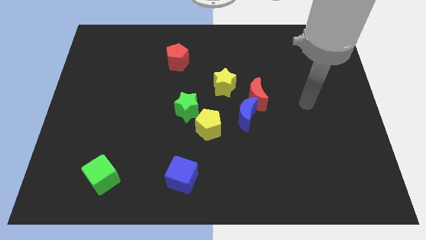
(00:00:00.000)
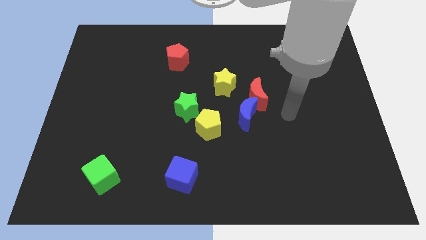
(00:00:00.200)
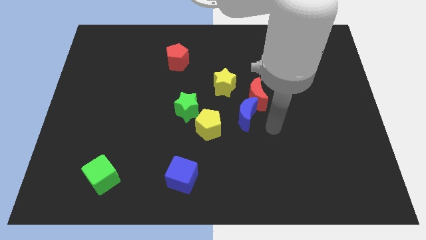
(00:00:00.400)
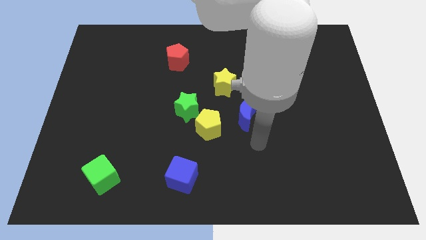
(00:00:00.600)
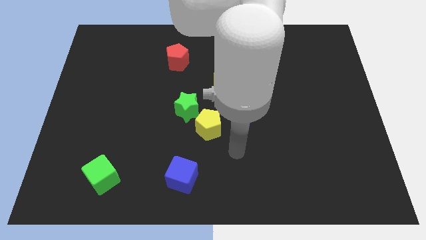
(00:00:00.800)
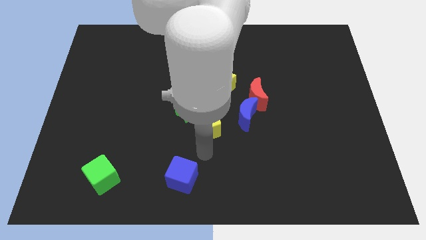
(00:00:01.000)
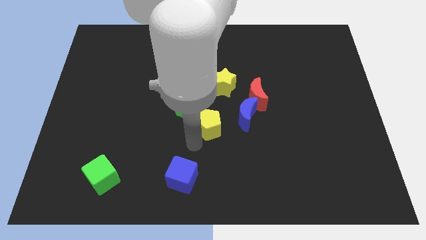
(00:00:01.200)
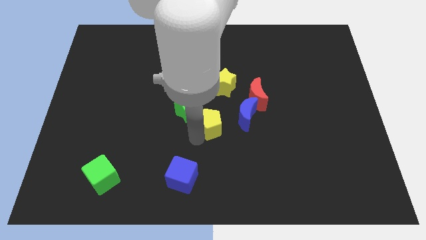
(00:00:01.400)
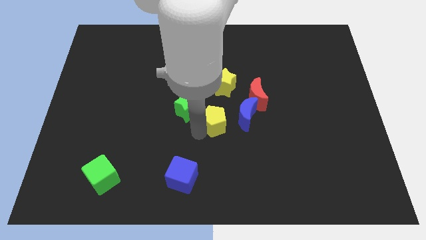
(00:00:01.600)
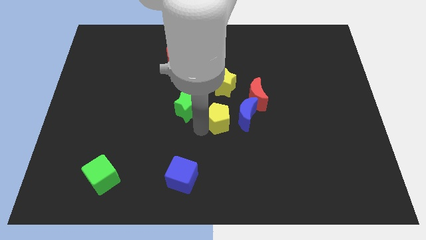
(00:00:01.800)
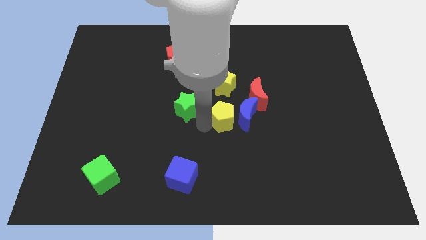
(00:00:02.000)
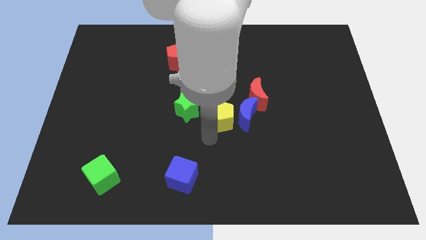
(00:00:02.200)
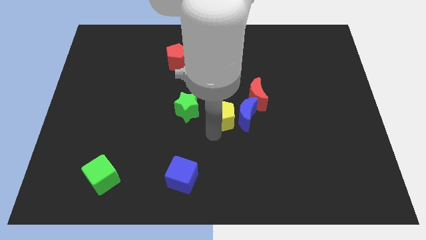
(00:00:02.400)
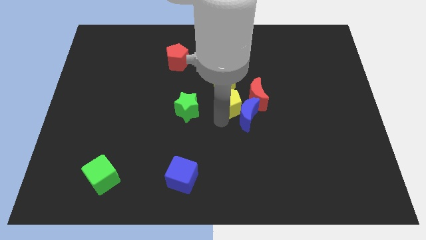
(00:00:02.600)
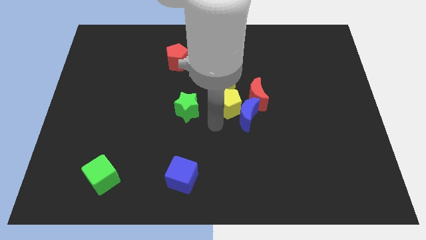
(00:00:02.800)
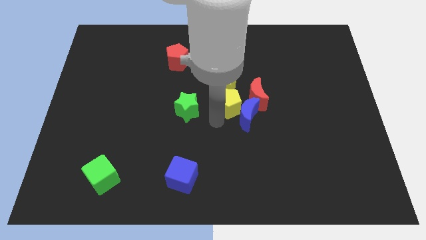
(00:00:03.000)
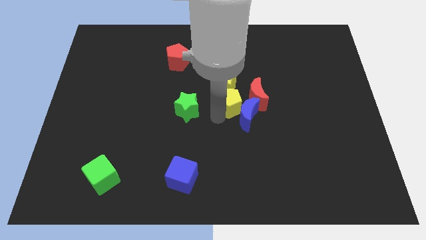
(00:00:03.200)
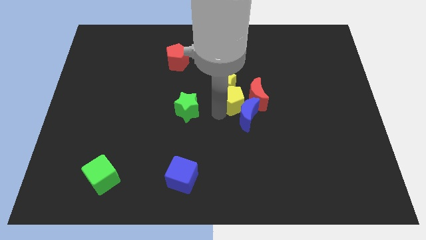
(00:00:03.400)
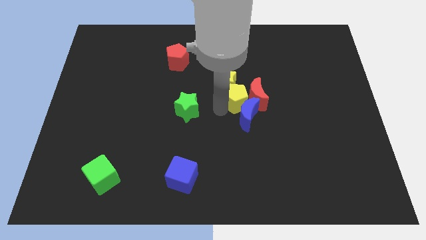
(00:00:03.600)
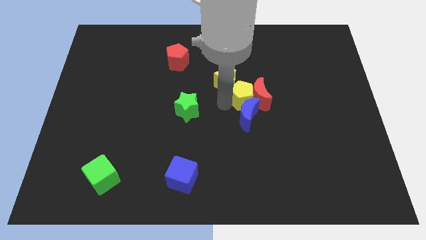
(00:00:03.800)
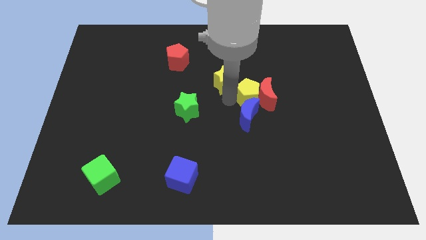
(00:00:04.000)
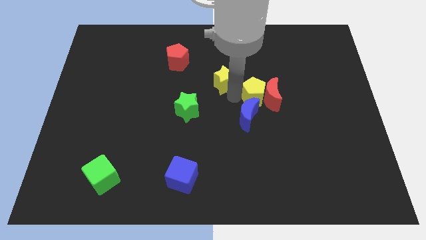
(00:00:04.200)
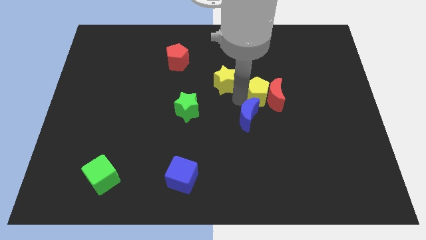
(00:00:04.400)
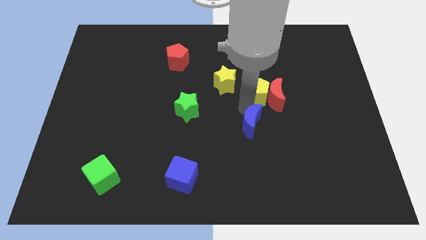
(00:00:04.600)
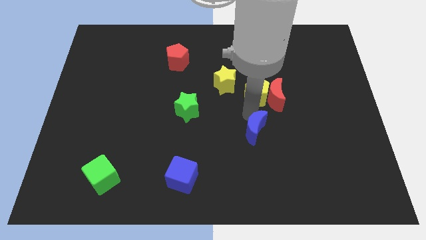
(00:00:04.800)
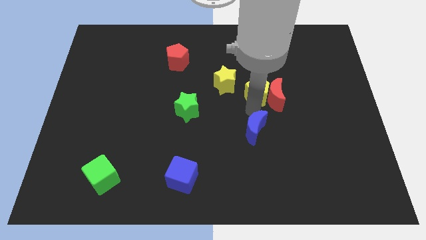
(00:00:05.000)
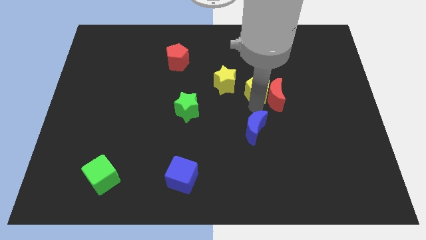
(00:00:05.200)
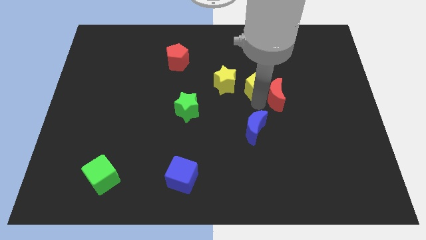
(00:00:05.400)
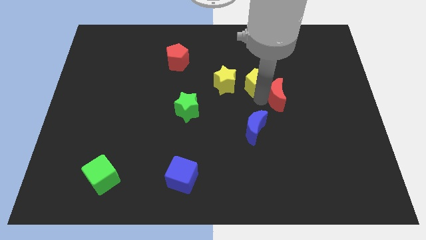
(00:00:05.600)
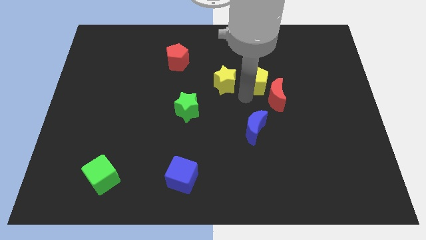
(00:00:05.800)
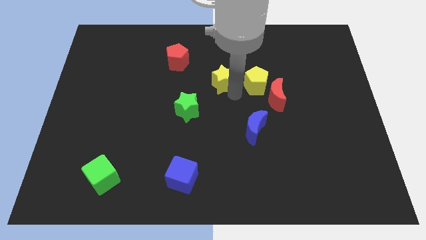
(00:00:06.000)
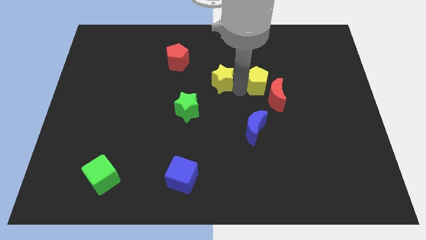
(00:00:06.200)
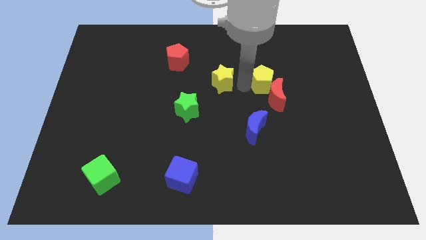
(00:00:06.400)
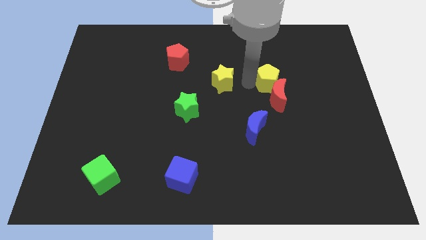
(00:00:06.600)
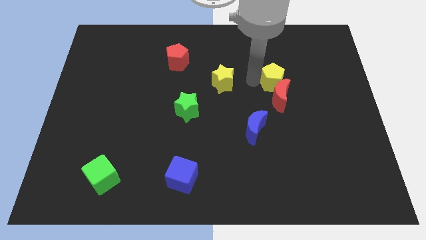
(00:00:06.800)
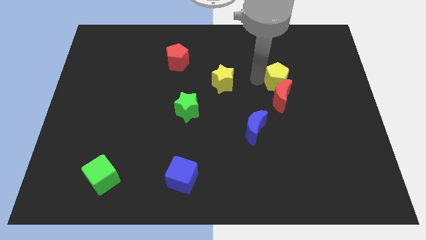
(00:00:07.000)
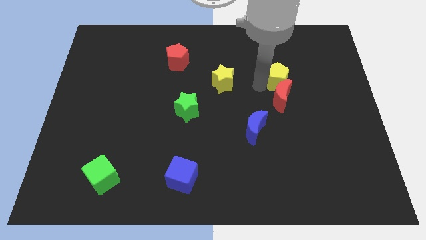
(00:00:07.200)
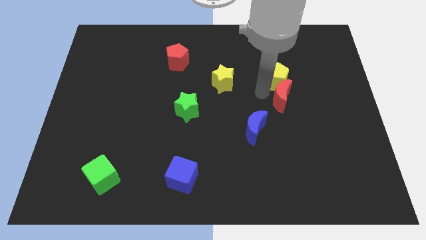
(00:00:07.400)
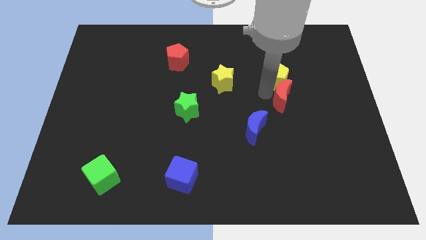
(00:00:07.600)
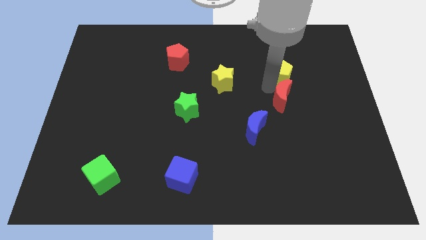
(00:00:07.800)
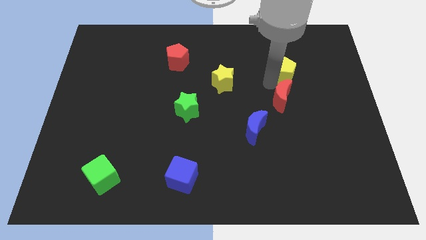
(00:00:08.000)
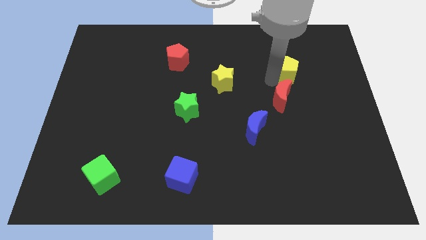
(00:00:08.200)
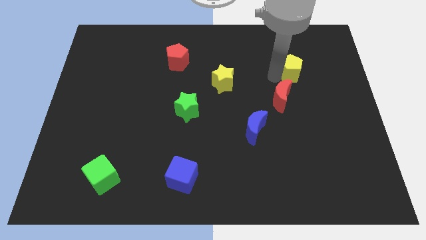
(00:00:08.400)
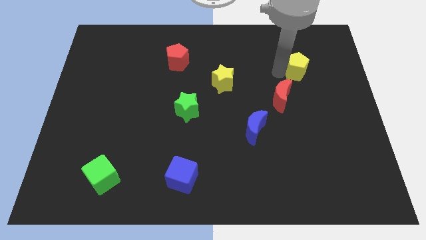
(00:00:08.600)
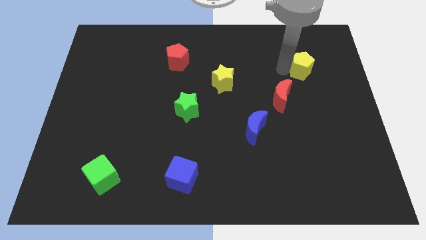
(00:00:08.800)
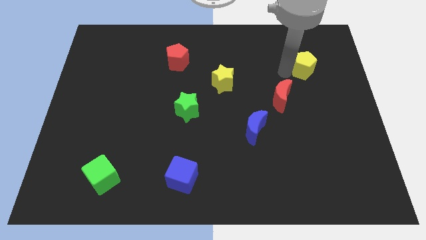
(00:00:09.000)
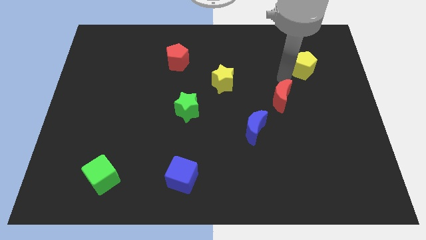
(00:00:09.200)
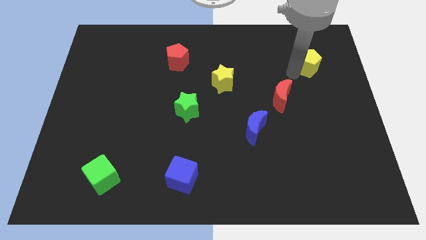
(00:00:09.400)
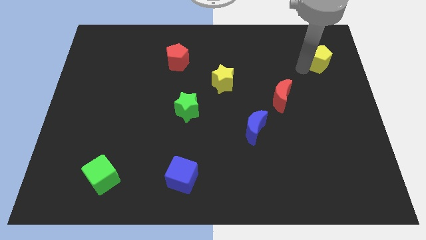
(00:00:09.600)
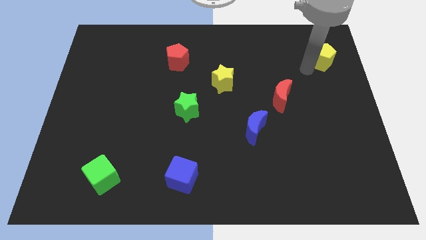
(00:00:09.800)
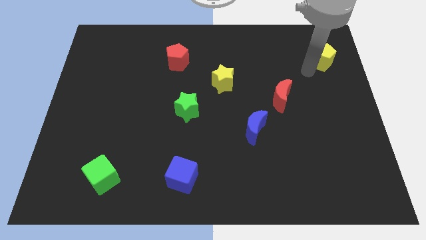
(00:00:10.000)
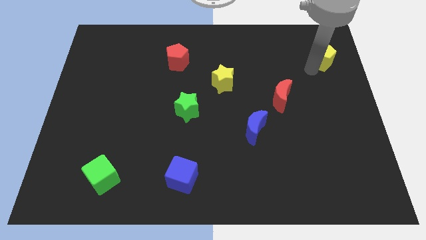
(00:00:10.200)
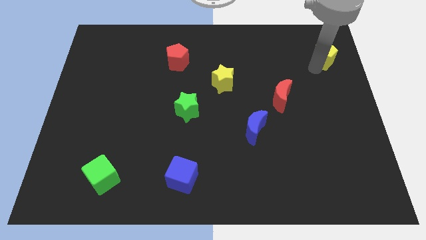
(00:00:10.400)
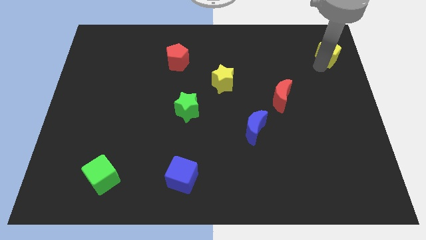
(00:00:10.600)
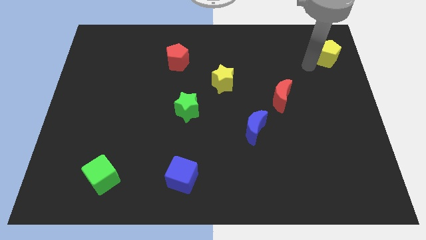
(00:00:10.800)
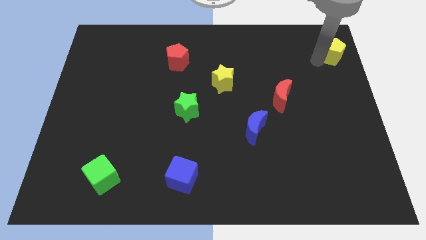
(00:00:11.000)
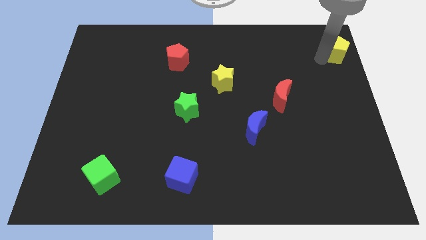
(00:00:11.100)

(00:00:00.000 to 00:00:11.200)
put the yellow pentagon to the top right of the board

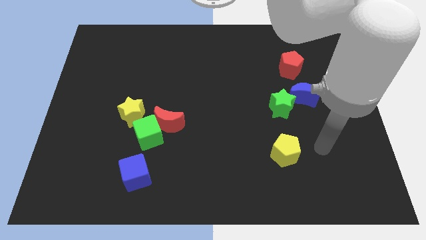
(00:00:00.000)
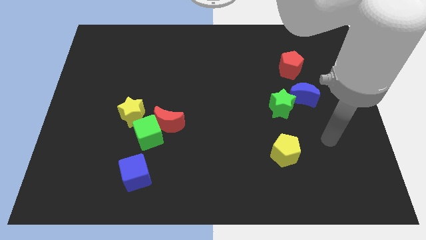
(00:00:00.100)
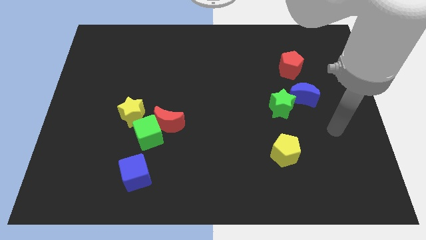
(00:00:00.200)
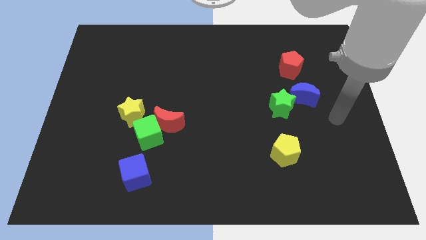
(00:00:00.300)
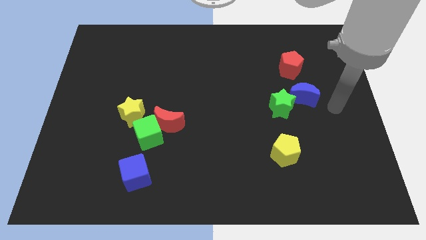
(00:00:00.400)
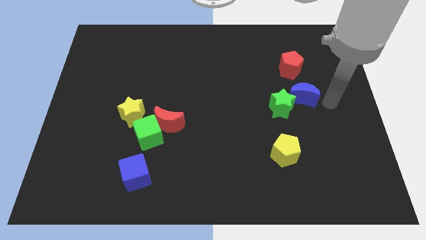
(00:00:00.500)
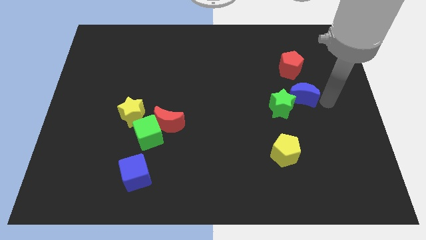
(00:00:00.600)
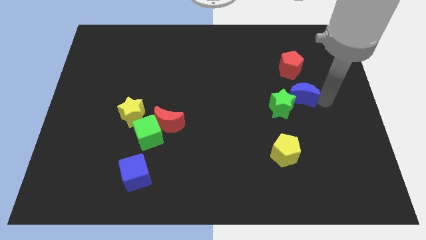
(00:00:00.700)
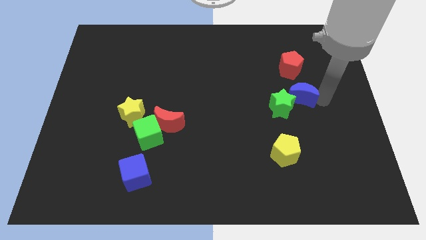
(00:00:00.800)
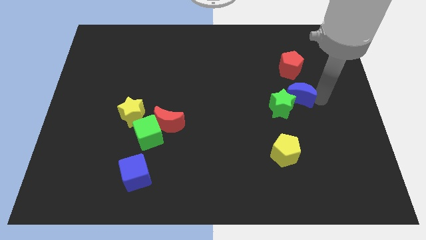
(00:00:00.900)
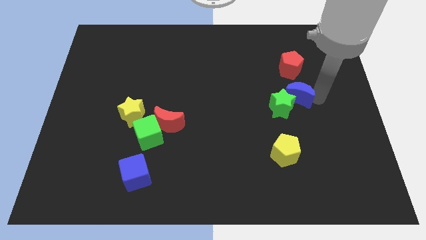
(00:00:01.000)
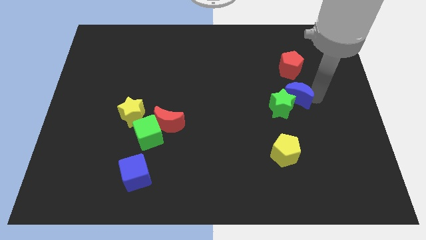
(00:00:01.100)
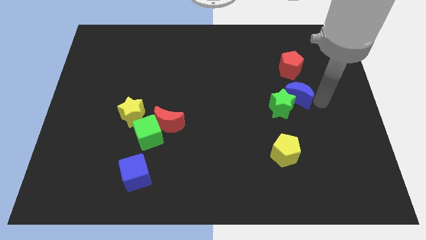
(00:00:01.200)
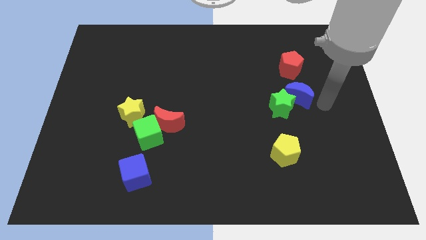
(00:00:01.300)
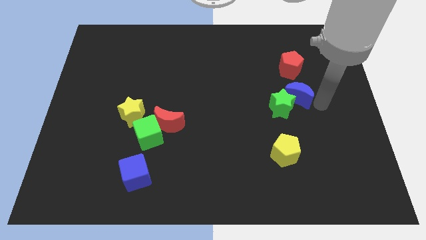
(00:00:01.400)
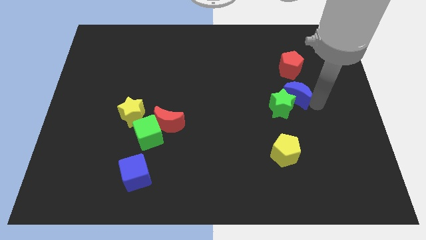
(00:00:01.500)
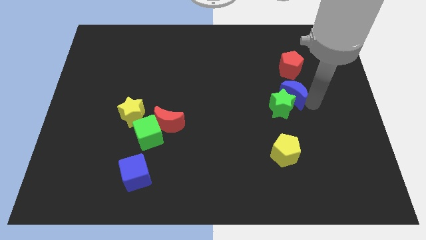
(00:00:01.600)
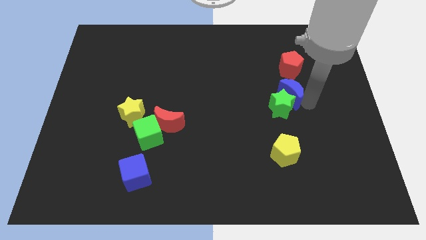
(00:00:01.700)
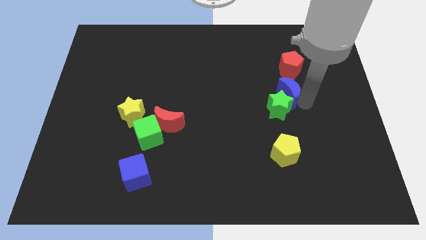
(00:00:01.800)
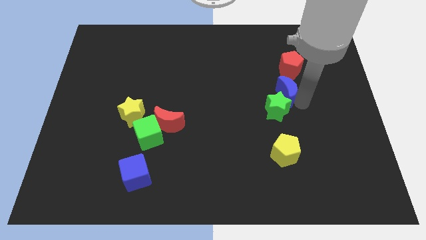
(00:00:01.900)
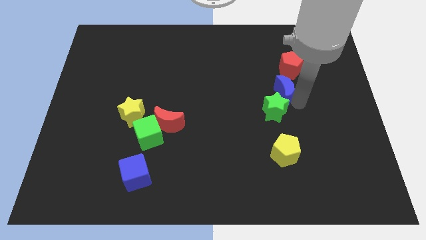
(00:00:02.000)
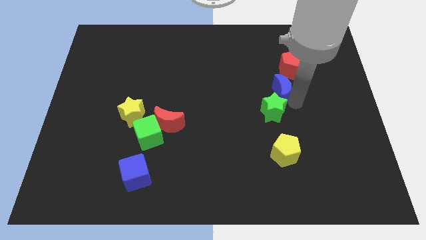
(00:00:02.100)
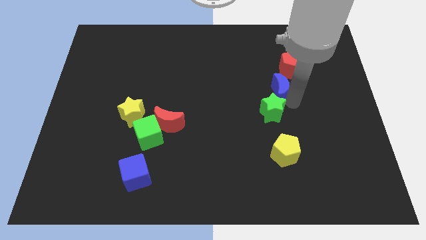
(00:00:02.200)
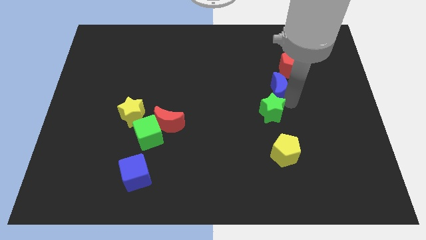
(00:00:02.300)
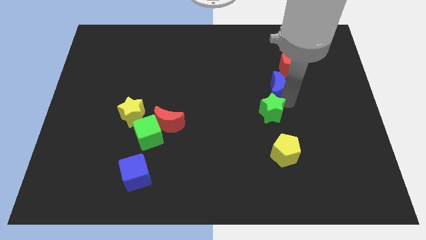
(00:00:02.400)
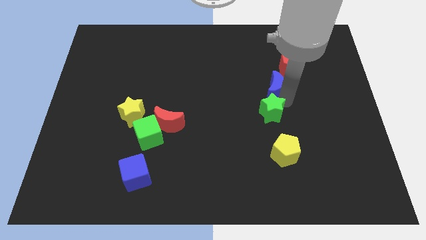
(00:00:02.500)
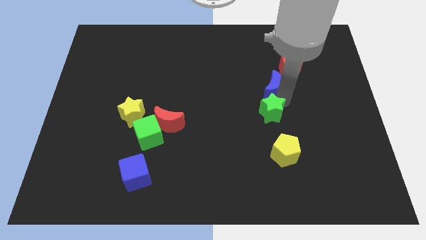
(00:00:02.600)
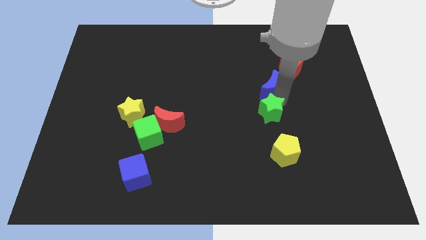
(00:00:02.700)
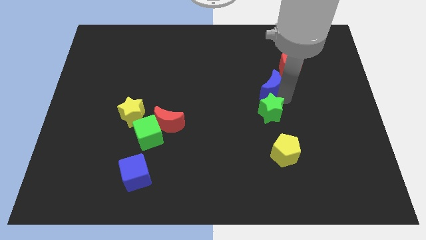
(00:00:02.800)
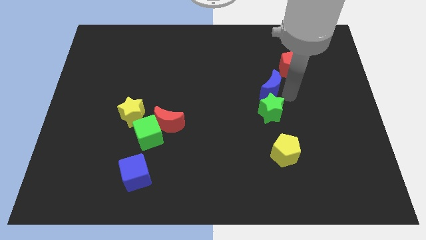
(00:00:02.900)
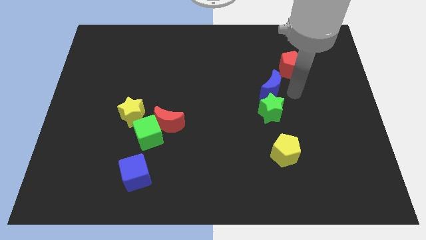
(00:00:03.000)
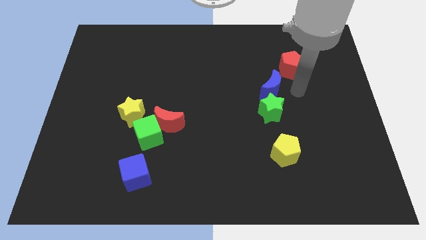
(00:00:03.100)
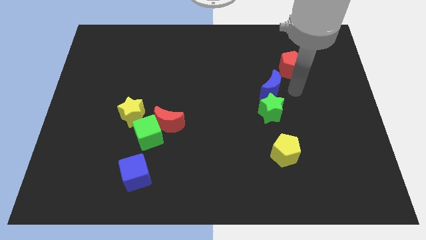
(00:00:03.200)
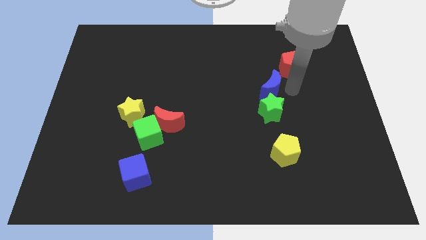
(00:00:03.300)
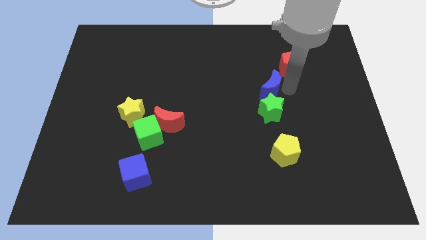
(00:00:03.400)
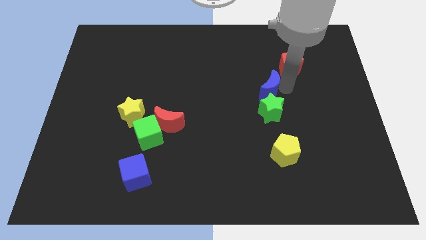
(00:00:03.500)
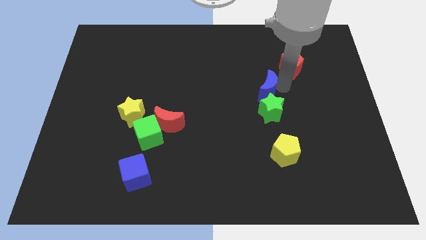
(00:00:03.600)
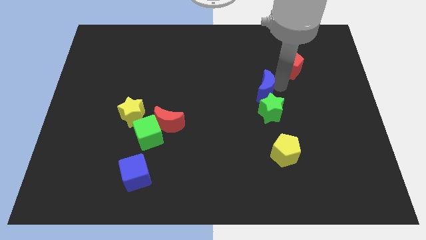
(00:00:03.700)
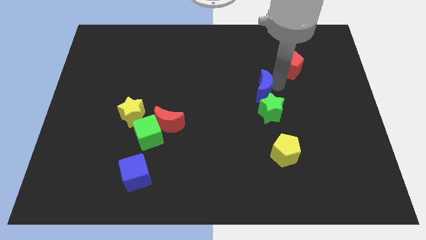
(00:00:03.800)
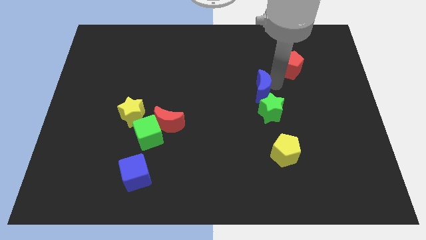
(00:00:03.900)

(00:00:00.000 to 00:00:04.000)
slide the blue moon to the middle of the board
